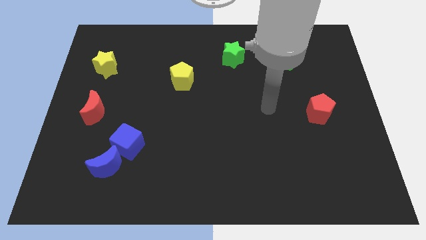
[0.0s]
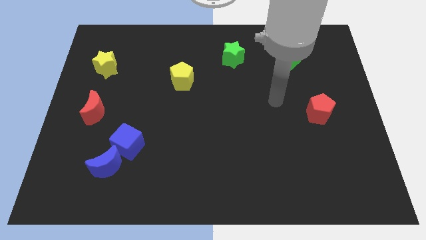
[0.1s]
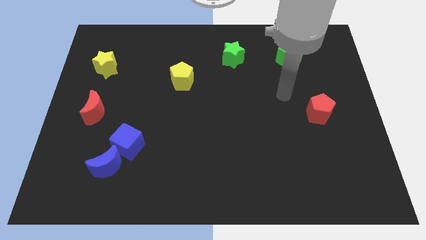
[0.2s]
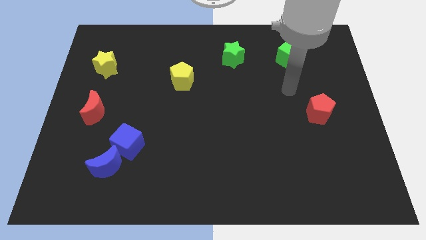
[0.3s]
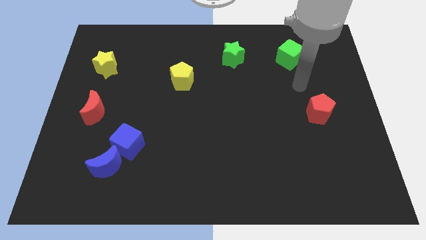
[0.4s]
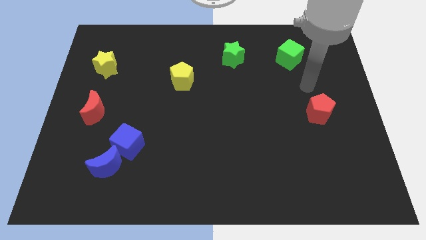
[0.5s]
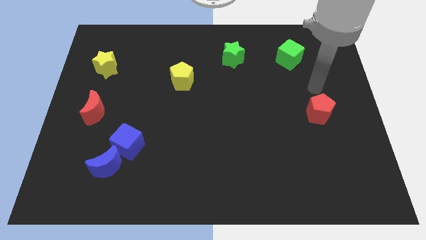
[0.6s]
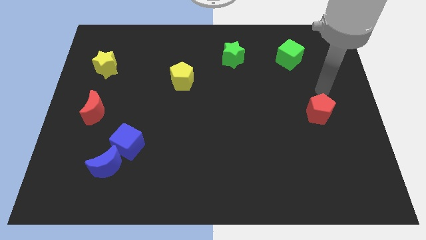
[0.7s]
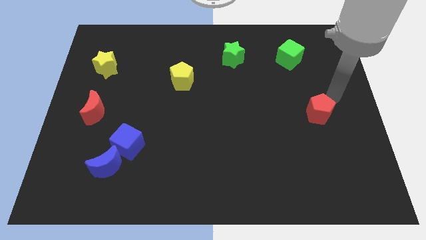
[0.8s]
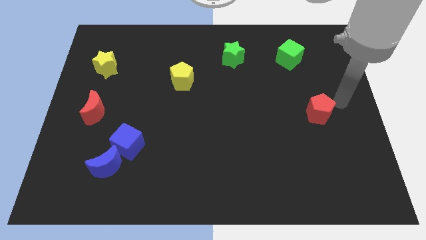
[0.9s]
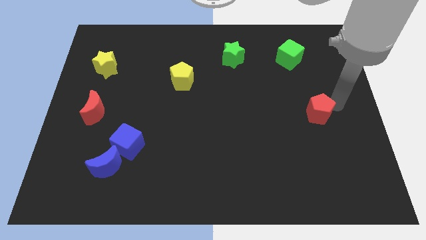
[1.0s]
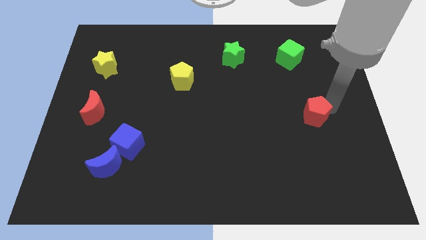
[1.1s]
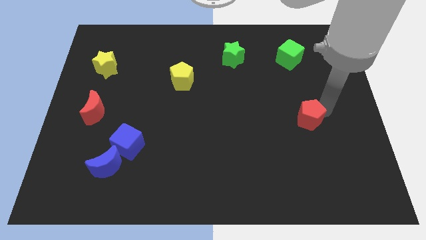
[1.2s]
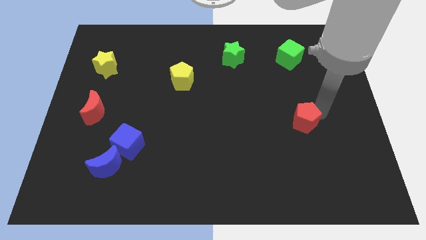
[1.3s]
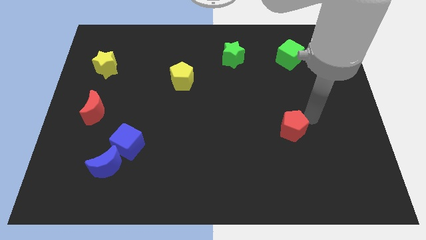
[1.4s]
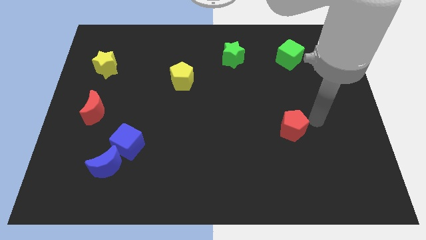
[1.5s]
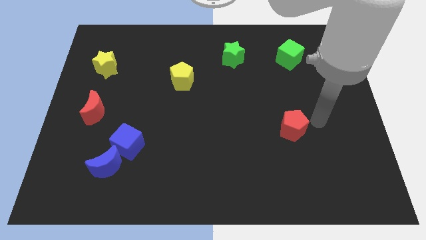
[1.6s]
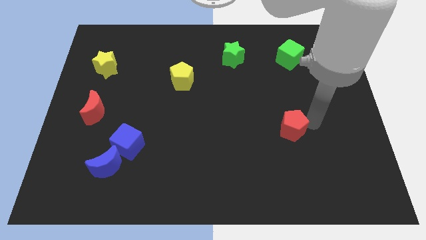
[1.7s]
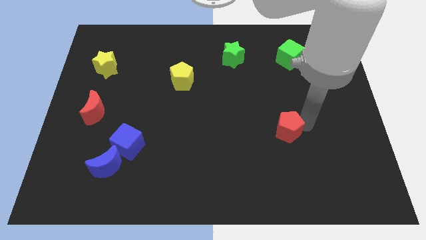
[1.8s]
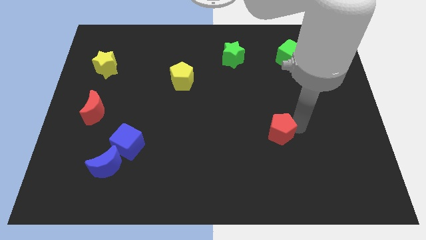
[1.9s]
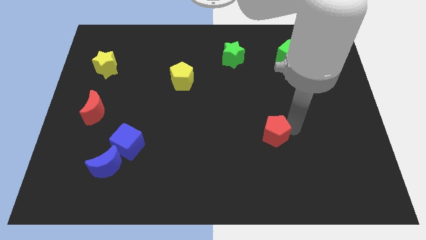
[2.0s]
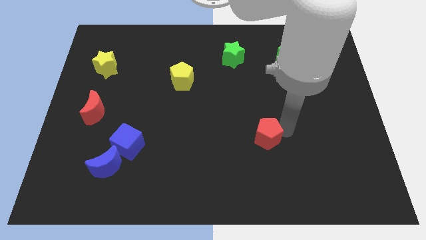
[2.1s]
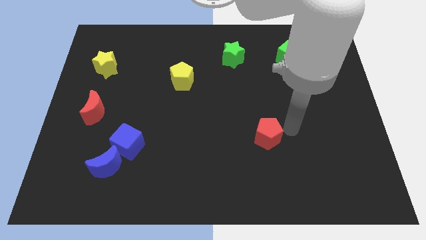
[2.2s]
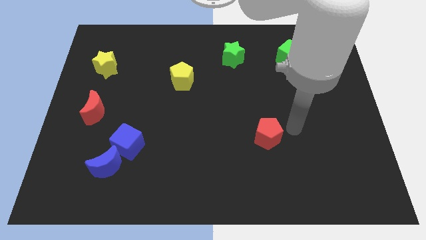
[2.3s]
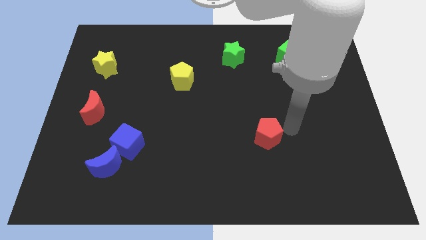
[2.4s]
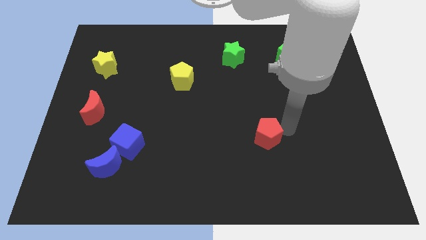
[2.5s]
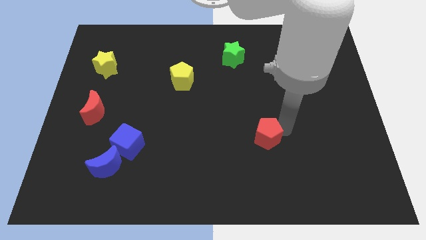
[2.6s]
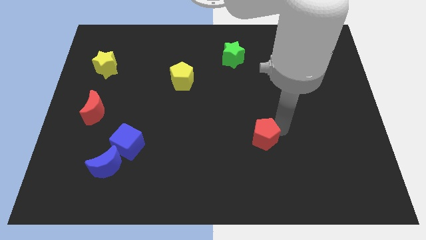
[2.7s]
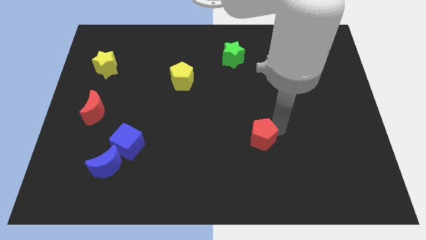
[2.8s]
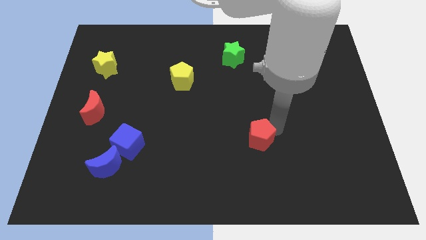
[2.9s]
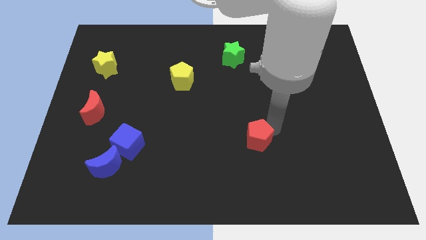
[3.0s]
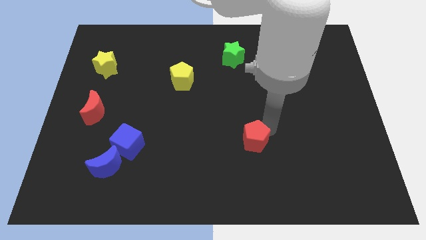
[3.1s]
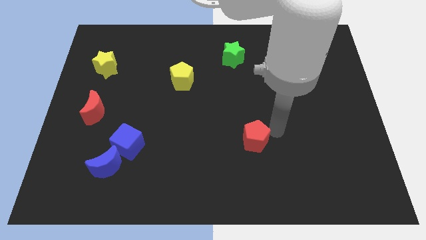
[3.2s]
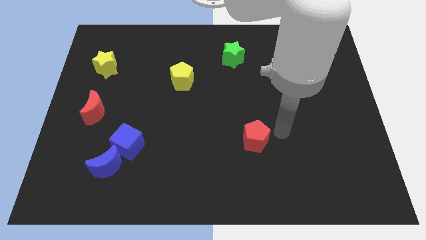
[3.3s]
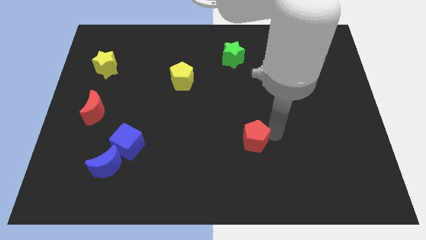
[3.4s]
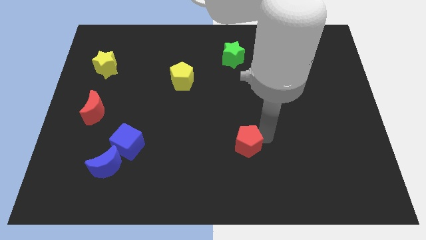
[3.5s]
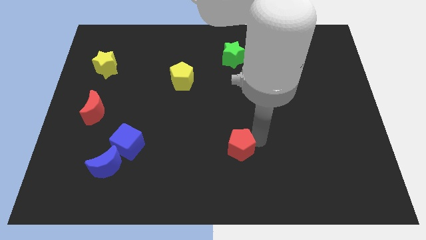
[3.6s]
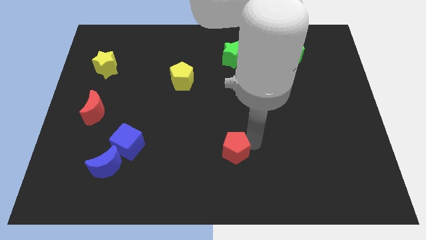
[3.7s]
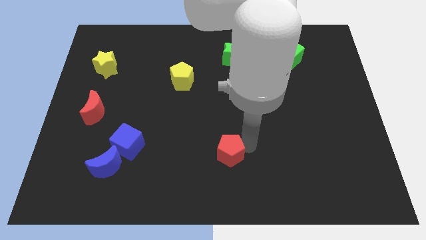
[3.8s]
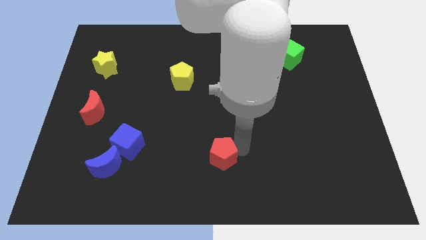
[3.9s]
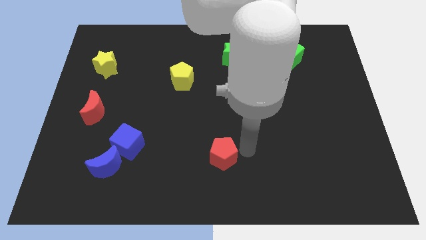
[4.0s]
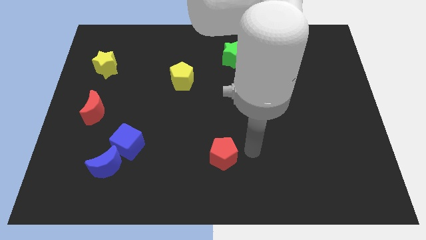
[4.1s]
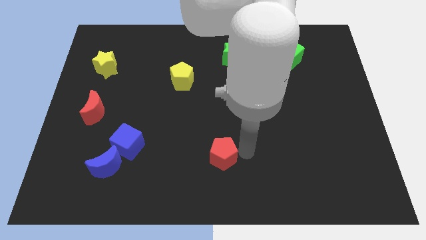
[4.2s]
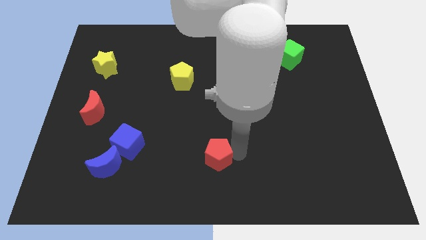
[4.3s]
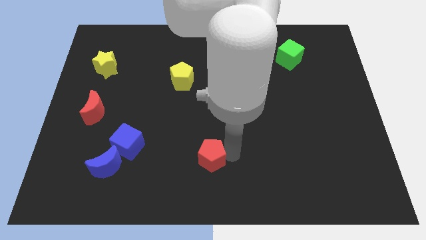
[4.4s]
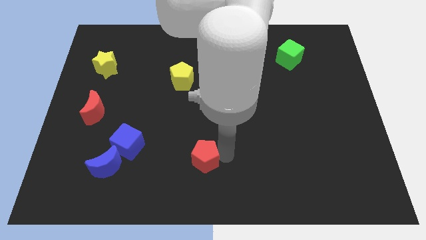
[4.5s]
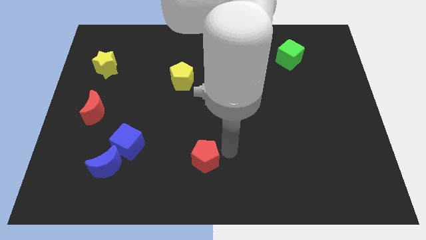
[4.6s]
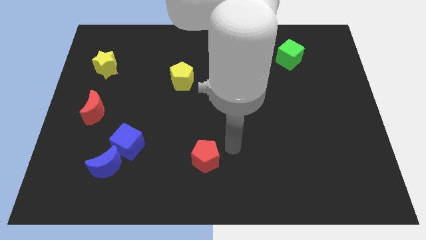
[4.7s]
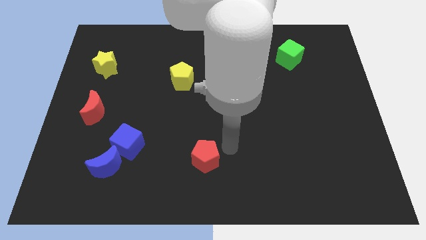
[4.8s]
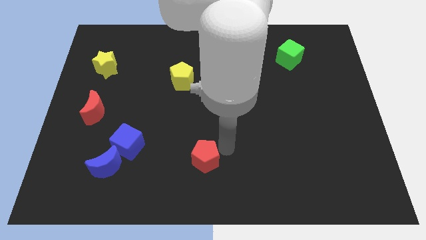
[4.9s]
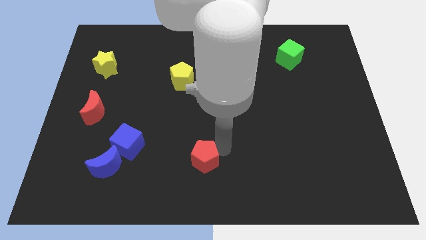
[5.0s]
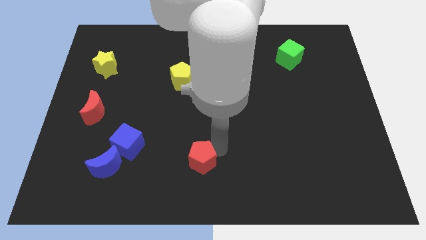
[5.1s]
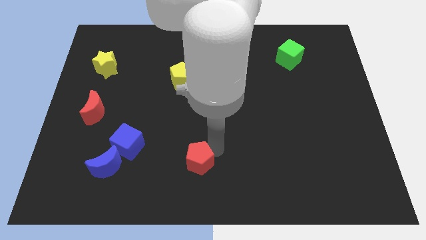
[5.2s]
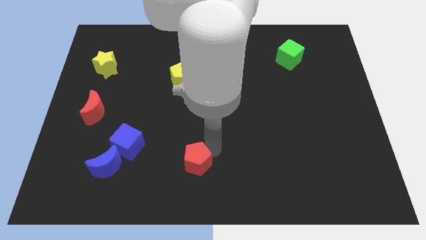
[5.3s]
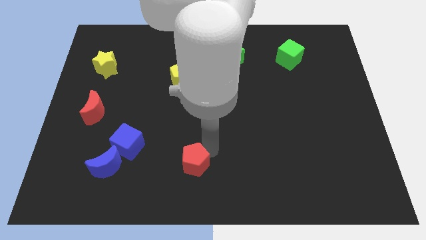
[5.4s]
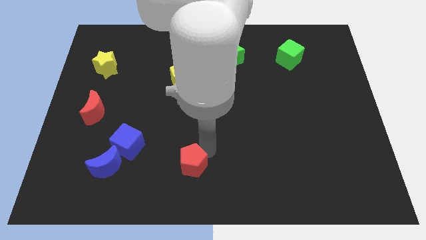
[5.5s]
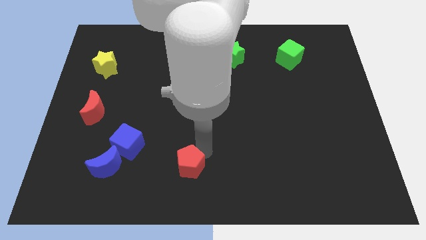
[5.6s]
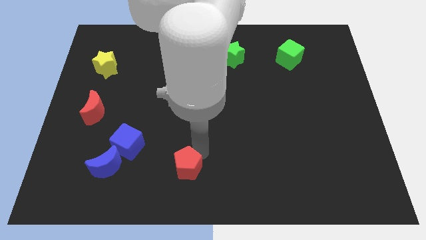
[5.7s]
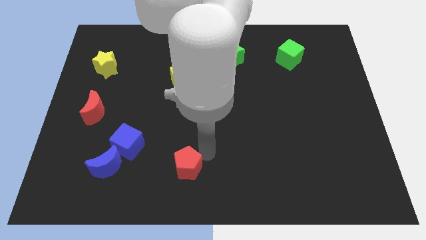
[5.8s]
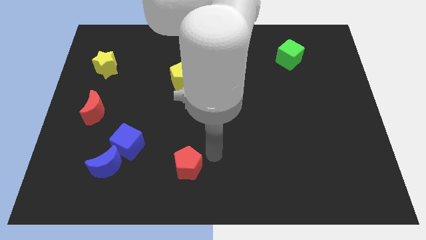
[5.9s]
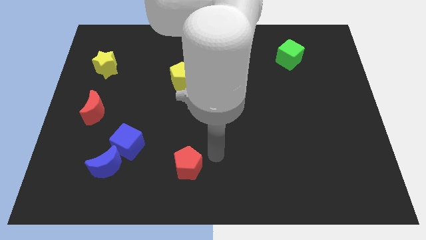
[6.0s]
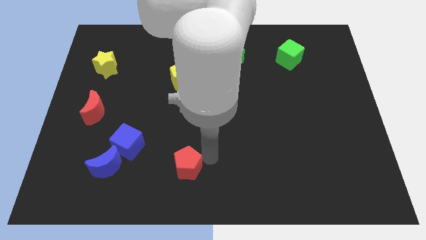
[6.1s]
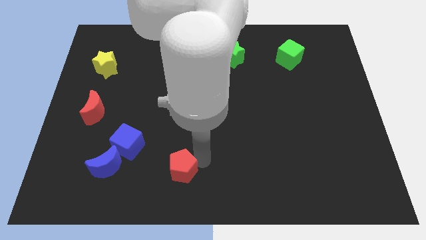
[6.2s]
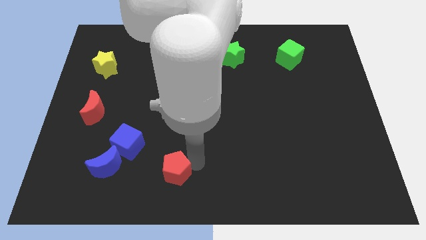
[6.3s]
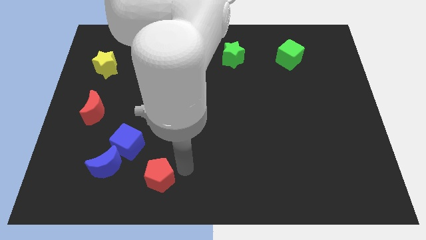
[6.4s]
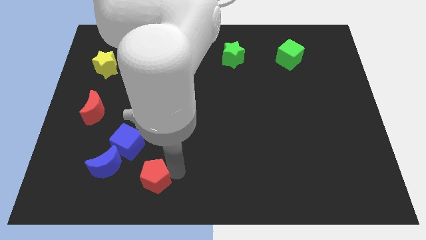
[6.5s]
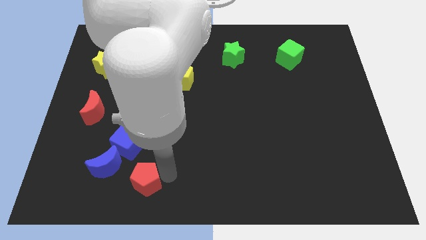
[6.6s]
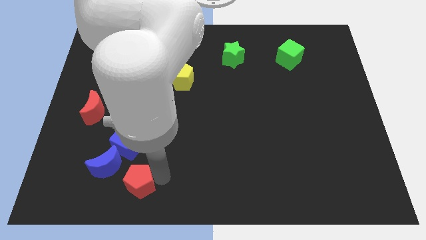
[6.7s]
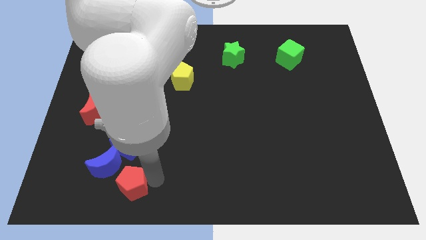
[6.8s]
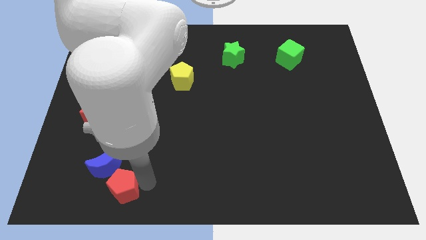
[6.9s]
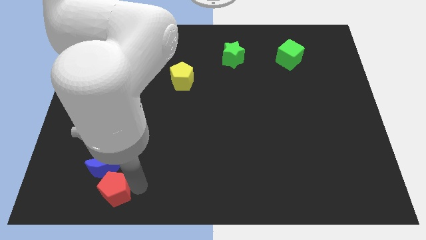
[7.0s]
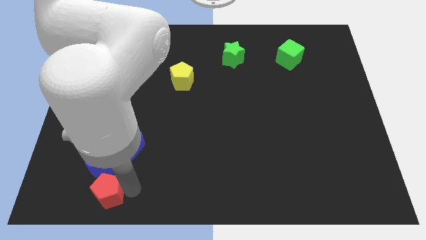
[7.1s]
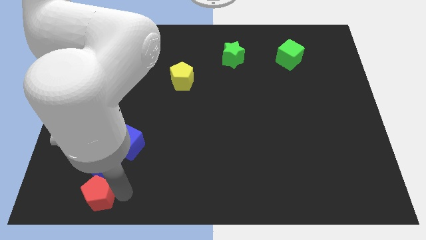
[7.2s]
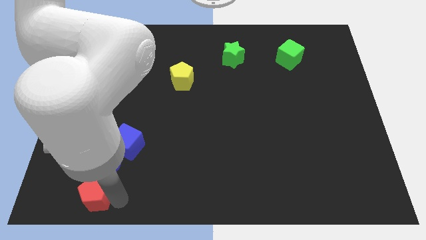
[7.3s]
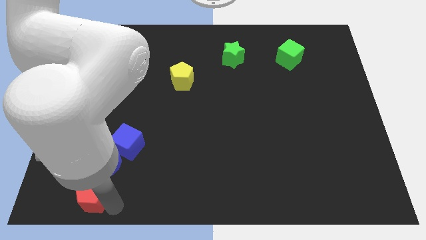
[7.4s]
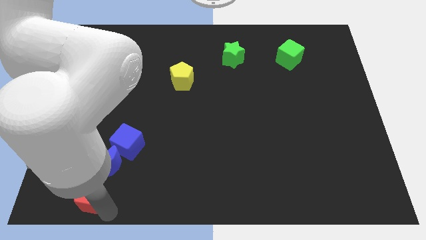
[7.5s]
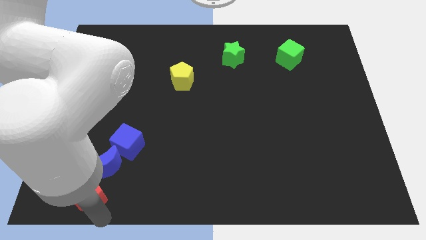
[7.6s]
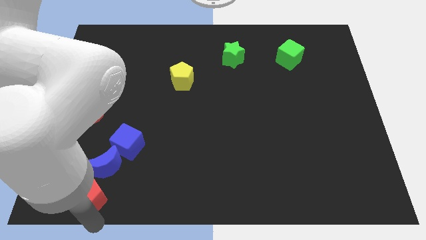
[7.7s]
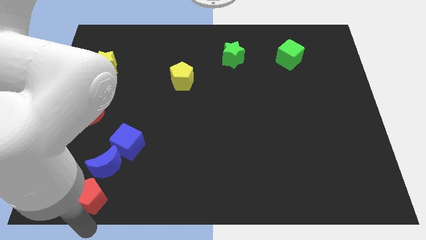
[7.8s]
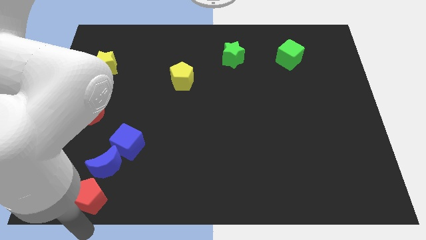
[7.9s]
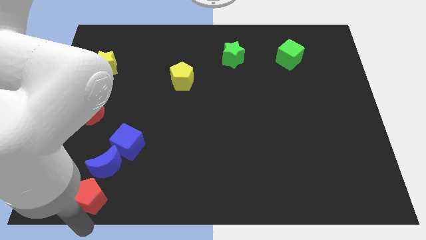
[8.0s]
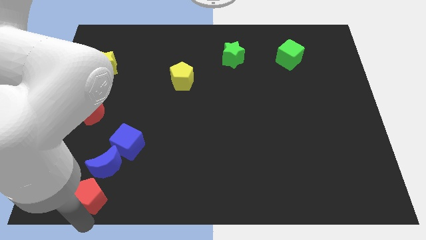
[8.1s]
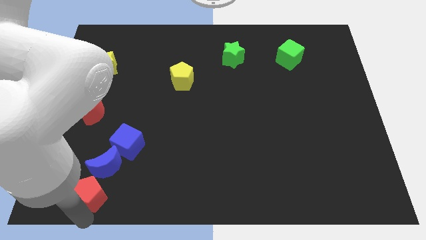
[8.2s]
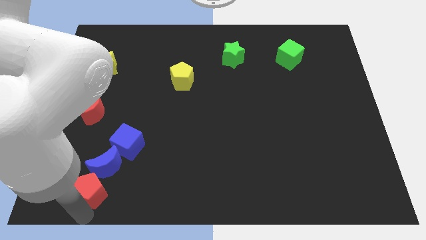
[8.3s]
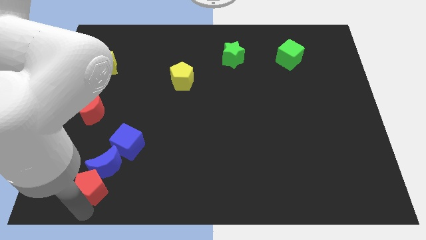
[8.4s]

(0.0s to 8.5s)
put the red pentagon to the bottom left of the blue cube
